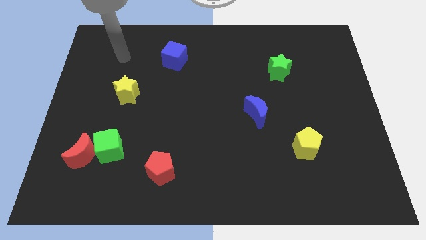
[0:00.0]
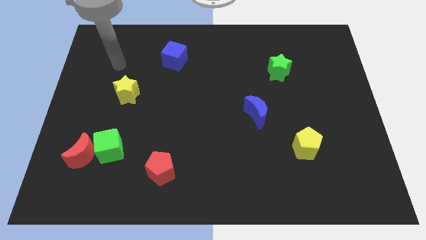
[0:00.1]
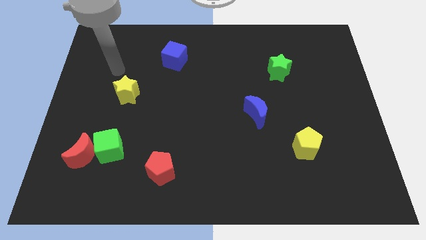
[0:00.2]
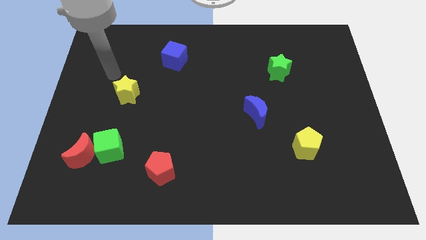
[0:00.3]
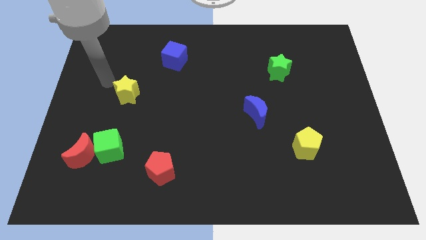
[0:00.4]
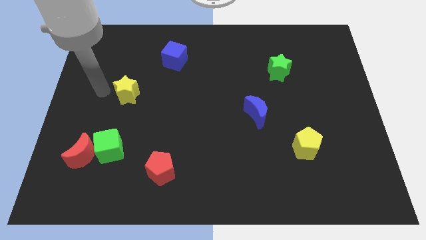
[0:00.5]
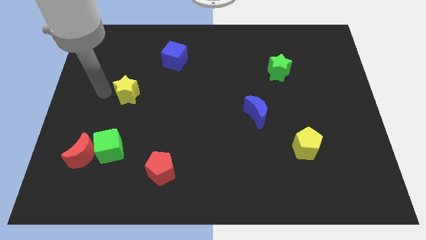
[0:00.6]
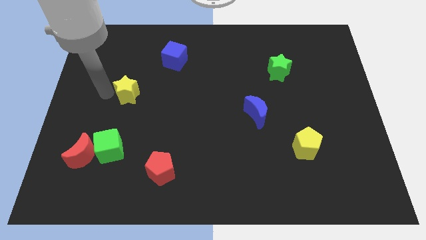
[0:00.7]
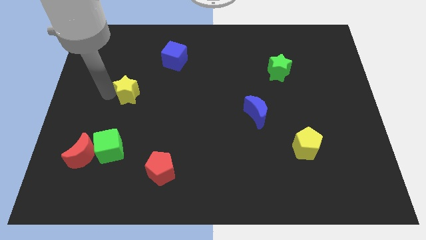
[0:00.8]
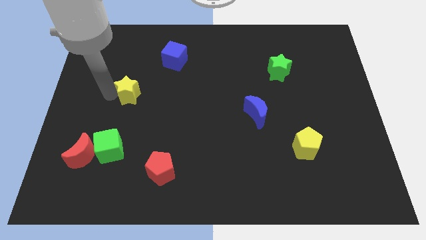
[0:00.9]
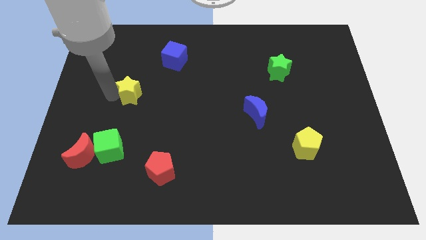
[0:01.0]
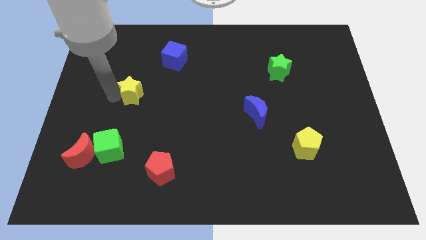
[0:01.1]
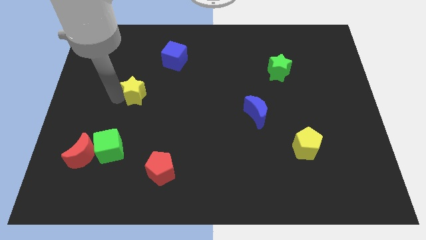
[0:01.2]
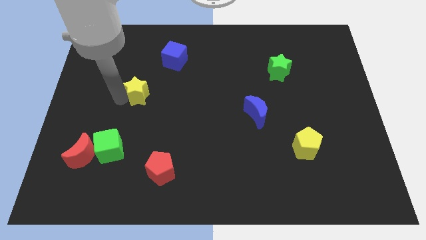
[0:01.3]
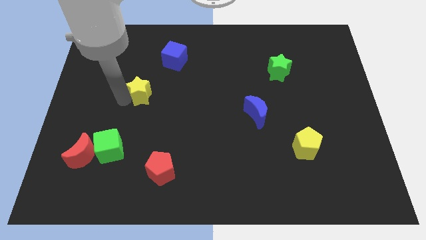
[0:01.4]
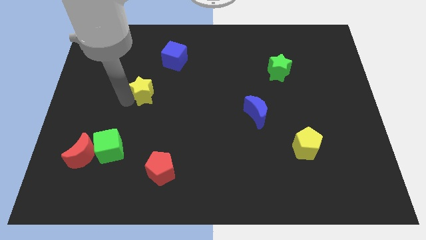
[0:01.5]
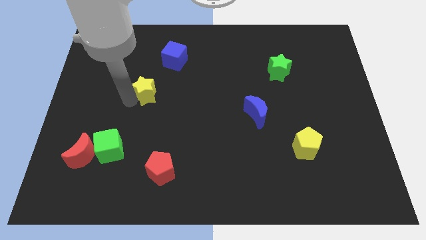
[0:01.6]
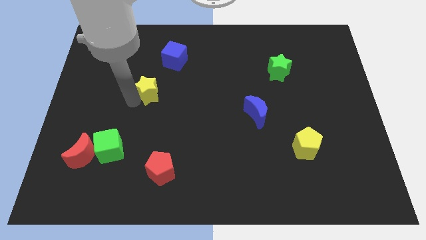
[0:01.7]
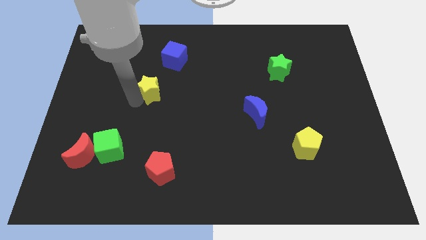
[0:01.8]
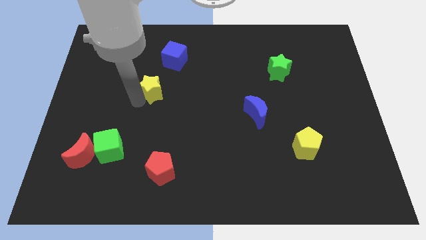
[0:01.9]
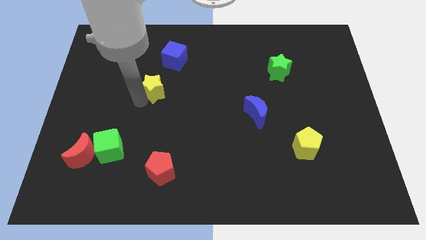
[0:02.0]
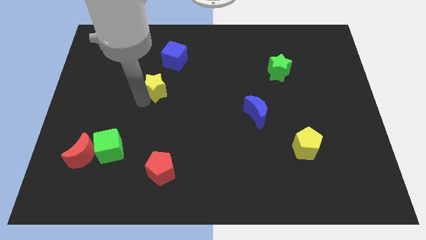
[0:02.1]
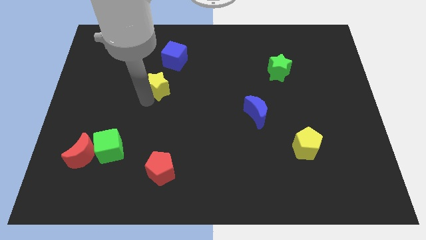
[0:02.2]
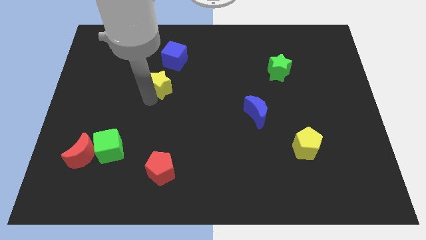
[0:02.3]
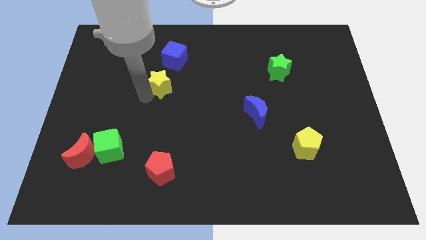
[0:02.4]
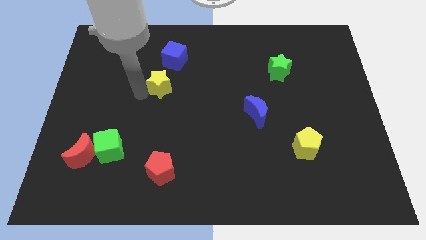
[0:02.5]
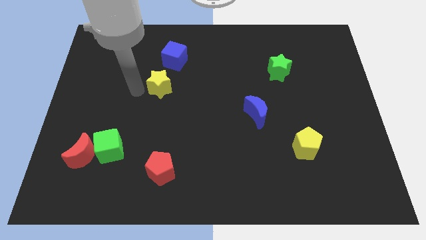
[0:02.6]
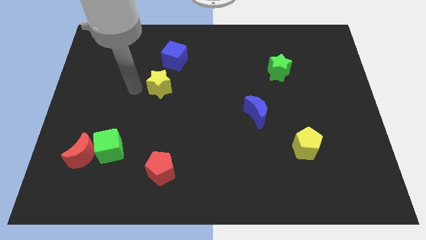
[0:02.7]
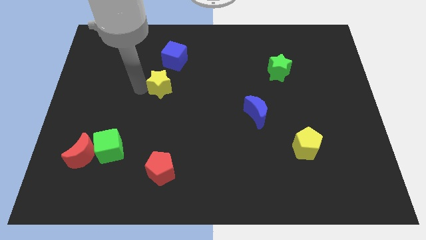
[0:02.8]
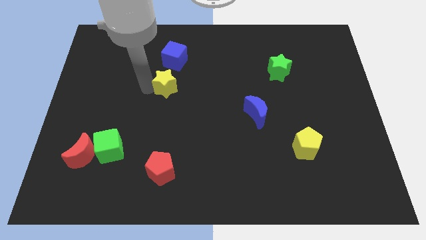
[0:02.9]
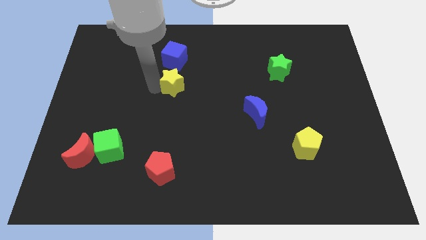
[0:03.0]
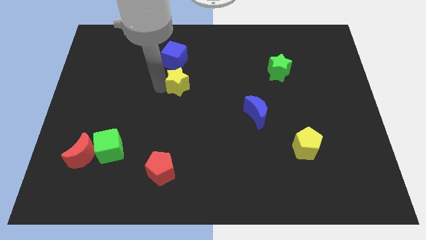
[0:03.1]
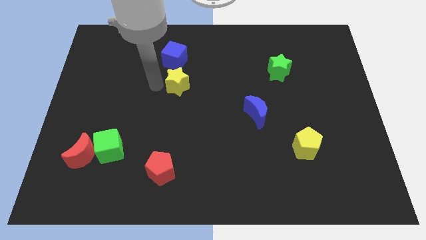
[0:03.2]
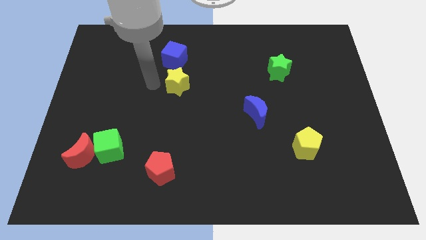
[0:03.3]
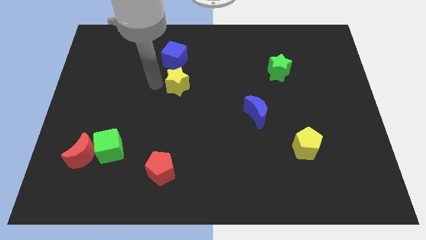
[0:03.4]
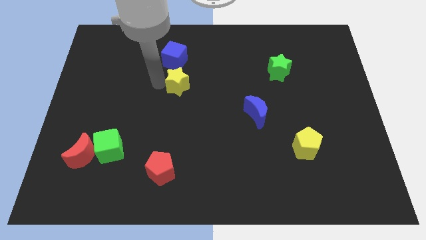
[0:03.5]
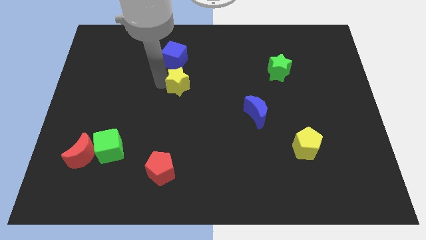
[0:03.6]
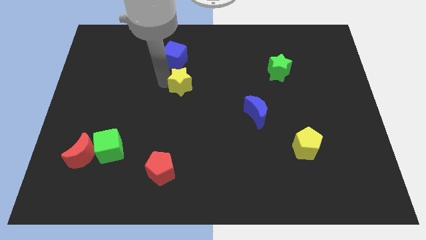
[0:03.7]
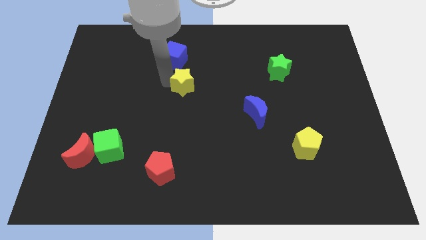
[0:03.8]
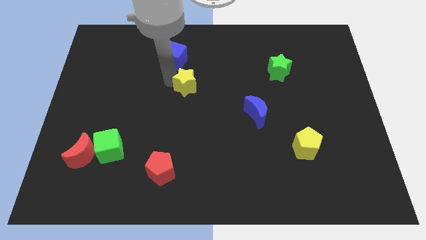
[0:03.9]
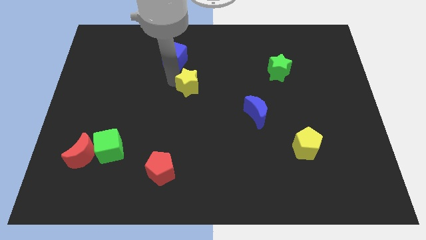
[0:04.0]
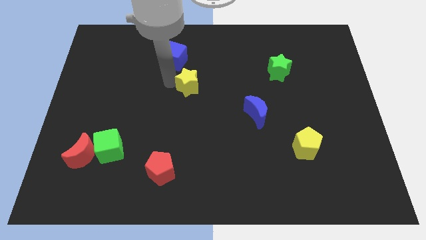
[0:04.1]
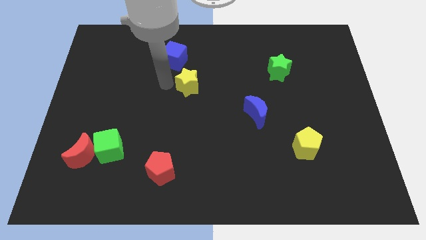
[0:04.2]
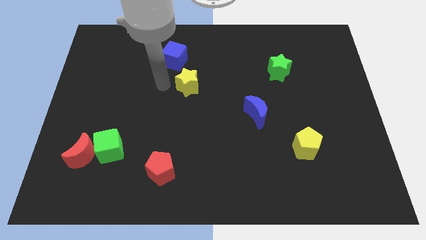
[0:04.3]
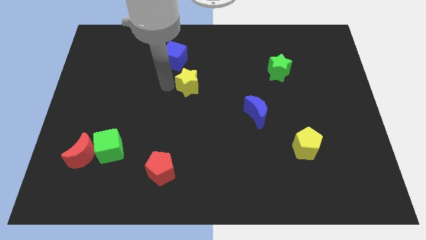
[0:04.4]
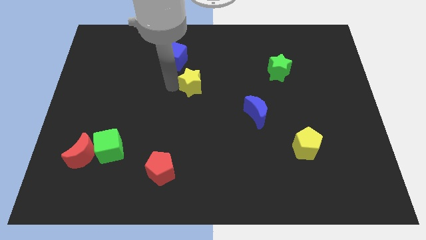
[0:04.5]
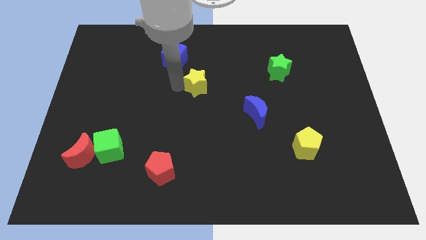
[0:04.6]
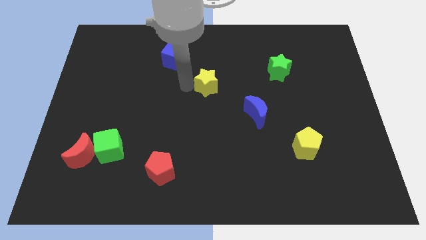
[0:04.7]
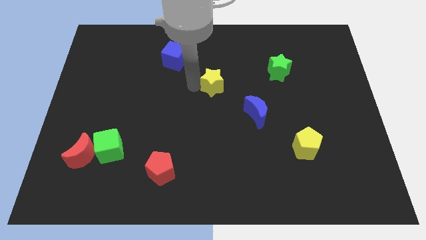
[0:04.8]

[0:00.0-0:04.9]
slide the yellow star right

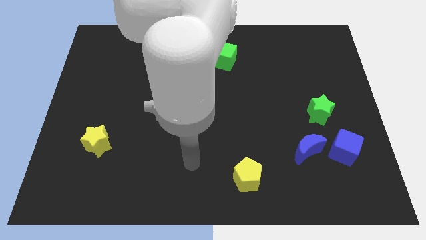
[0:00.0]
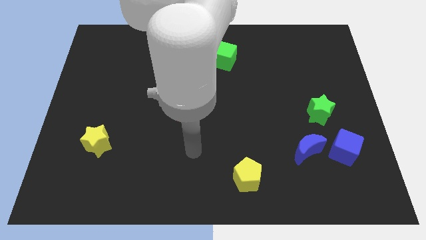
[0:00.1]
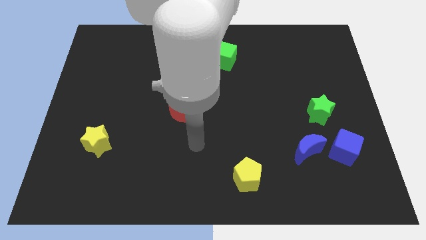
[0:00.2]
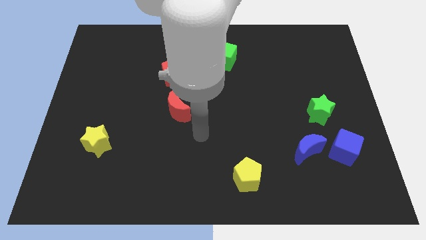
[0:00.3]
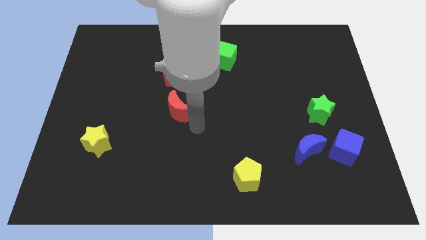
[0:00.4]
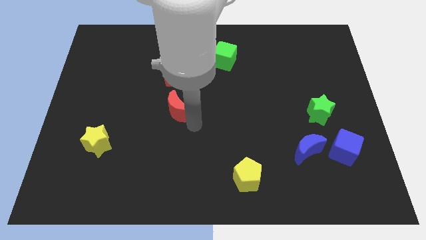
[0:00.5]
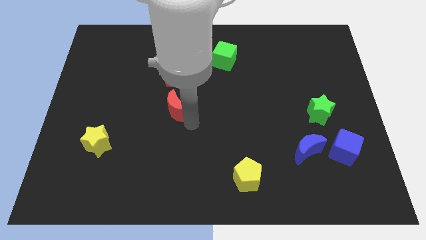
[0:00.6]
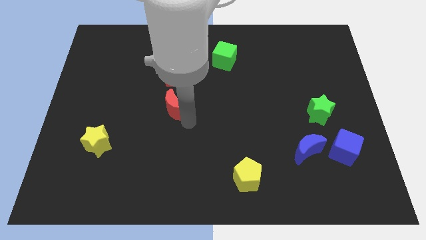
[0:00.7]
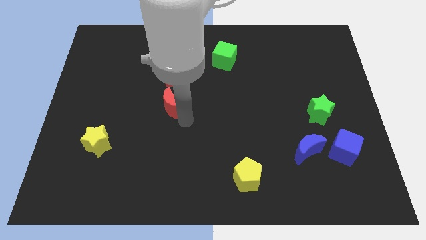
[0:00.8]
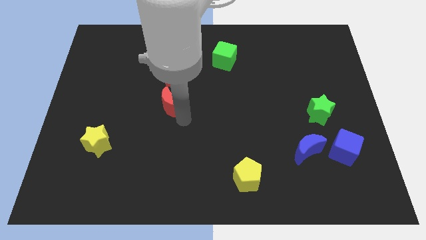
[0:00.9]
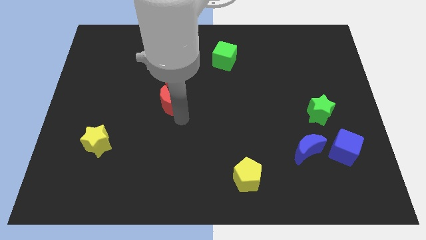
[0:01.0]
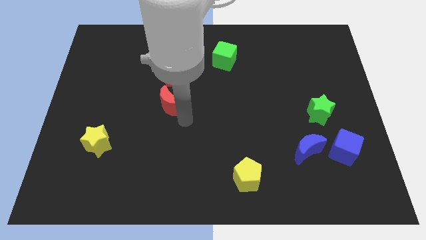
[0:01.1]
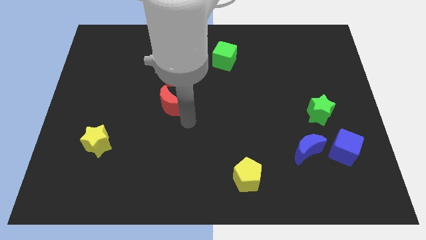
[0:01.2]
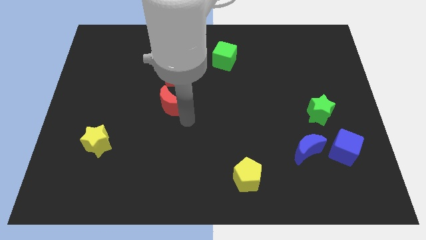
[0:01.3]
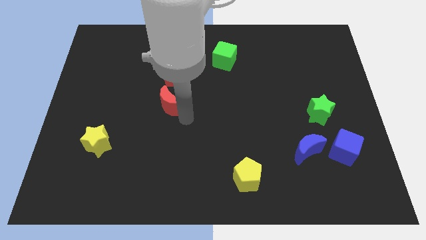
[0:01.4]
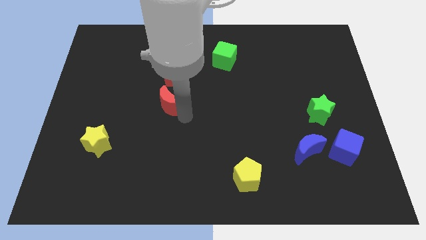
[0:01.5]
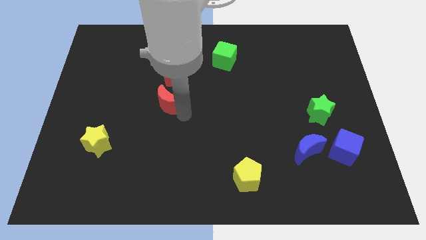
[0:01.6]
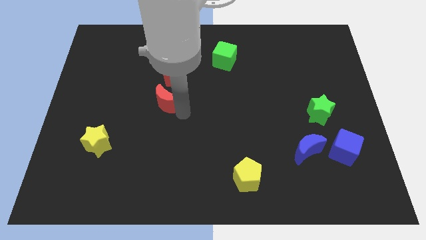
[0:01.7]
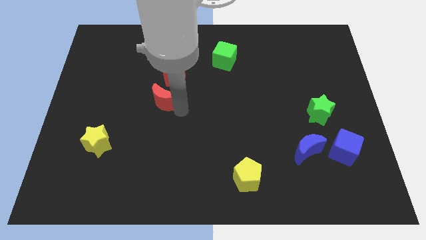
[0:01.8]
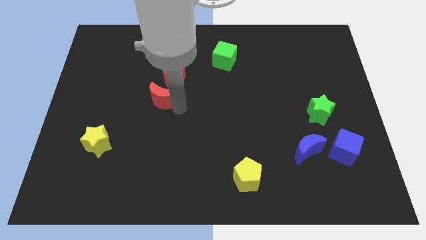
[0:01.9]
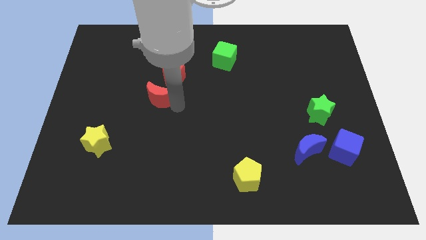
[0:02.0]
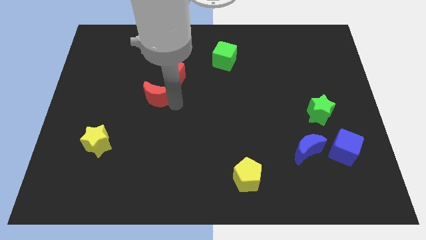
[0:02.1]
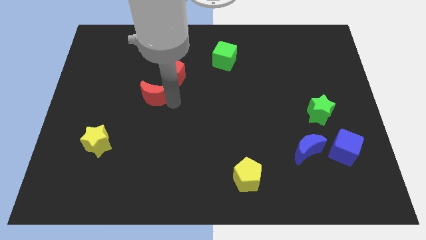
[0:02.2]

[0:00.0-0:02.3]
slightly push the red moon upwards and to the left diagonally

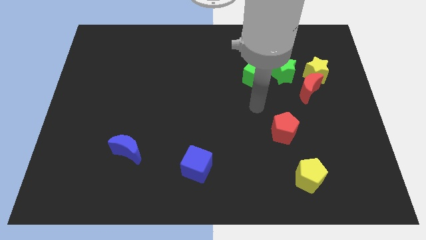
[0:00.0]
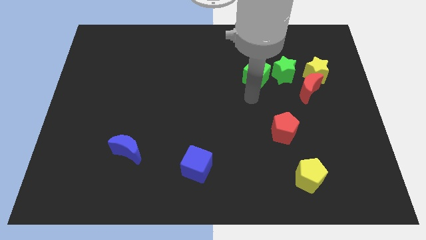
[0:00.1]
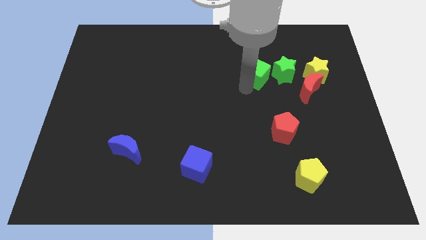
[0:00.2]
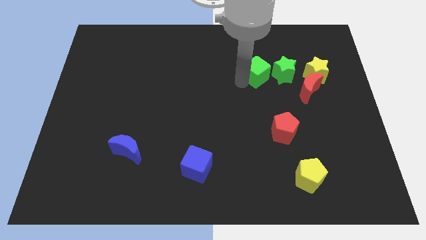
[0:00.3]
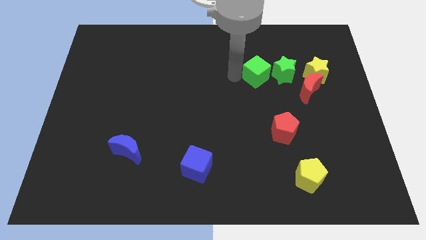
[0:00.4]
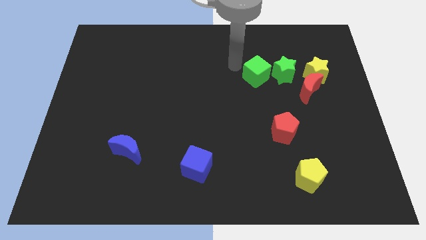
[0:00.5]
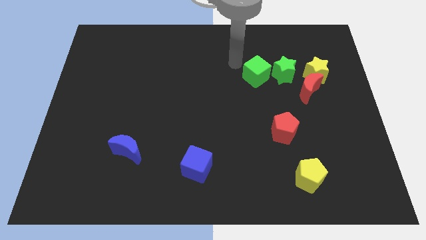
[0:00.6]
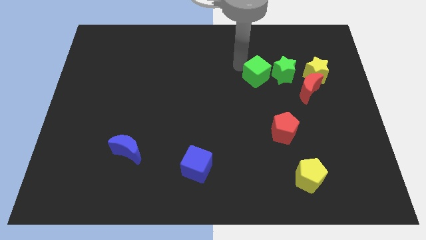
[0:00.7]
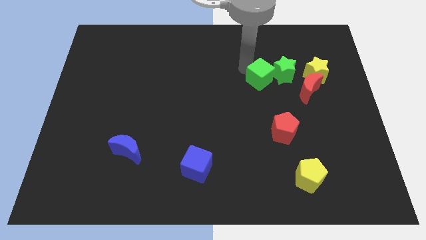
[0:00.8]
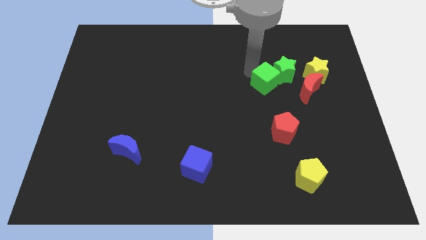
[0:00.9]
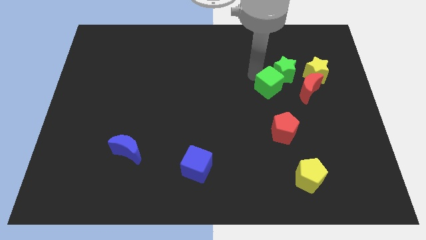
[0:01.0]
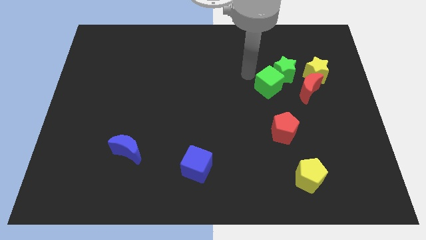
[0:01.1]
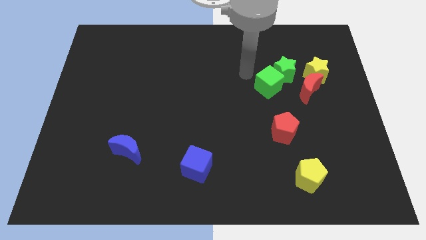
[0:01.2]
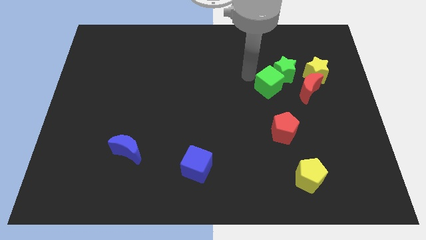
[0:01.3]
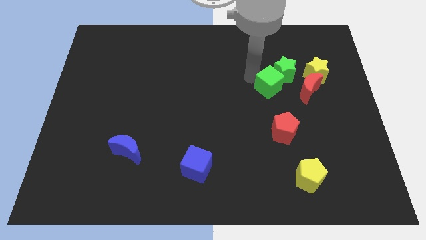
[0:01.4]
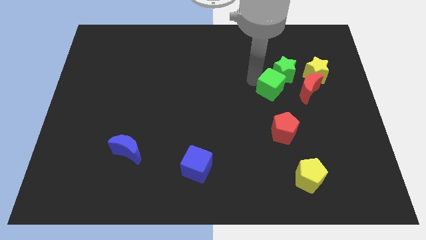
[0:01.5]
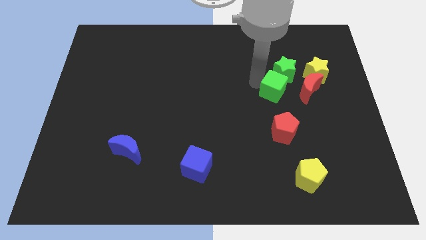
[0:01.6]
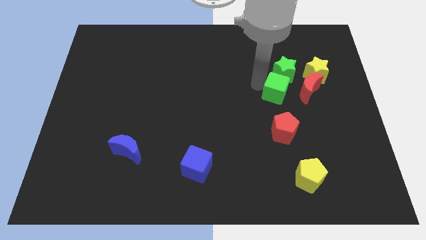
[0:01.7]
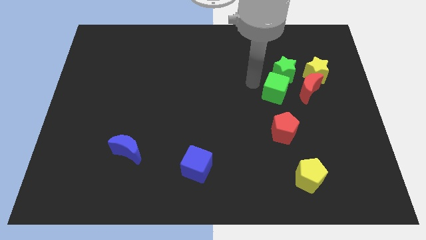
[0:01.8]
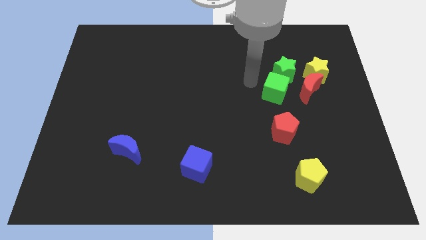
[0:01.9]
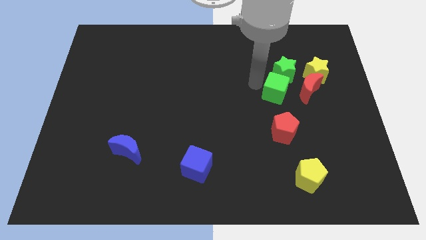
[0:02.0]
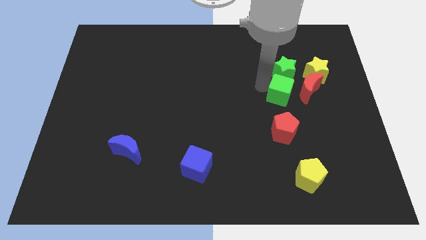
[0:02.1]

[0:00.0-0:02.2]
push the green cube a little bit down and to the right
